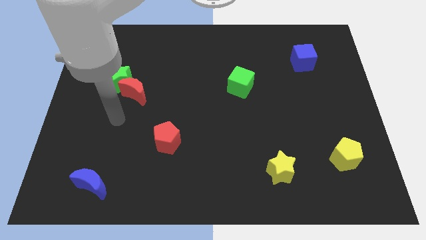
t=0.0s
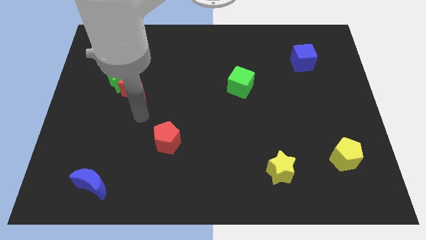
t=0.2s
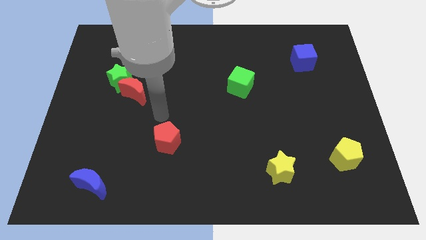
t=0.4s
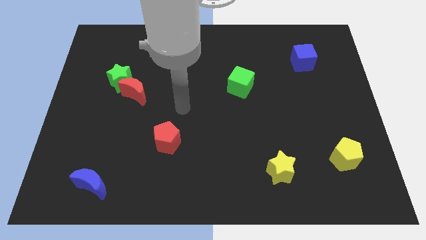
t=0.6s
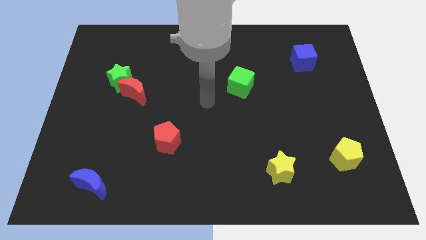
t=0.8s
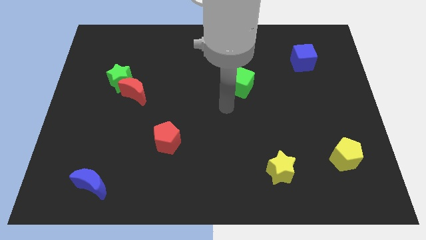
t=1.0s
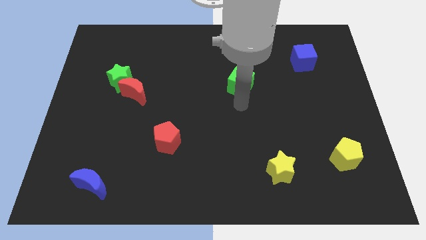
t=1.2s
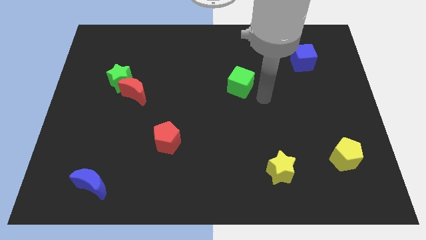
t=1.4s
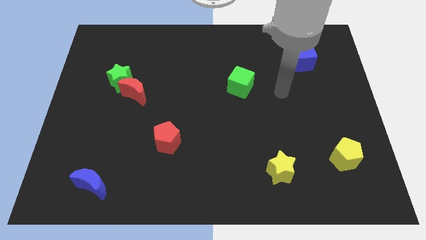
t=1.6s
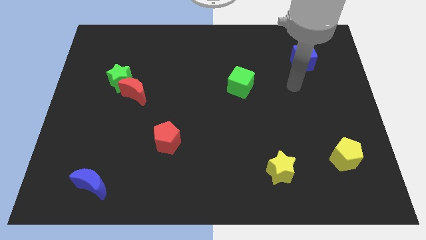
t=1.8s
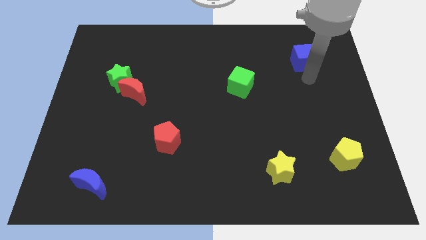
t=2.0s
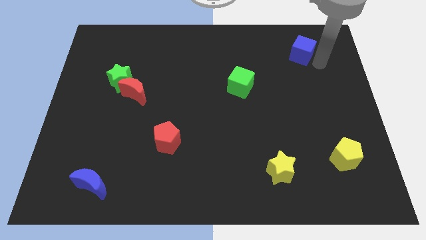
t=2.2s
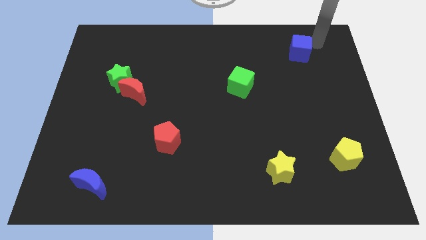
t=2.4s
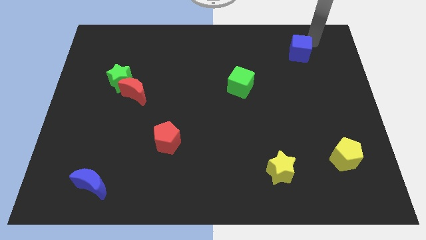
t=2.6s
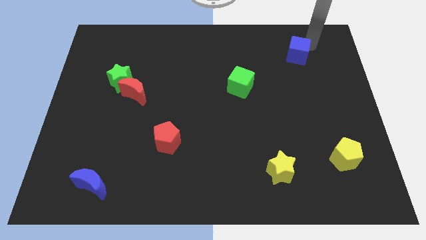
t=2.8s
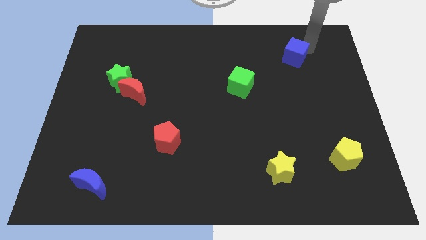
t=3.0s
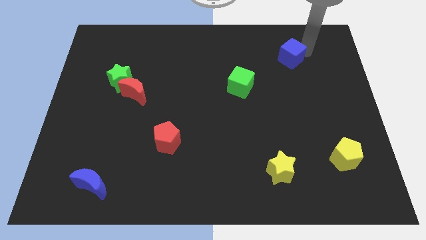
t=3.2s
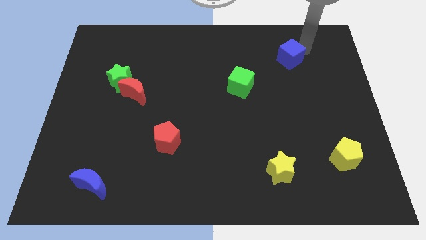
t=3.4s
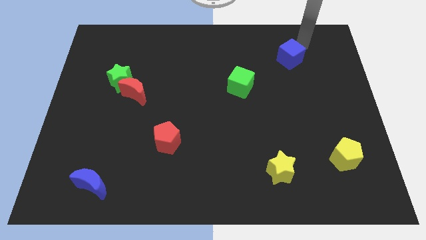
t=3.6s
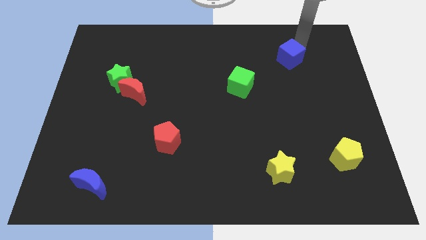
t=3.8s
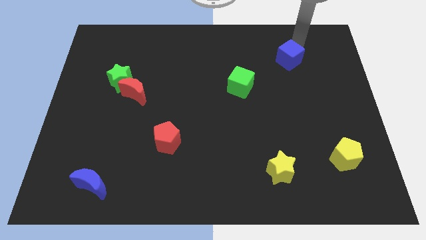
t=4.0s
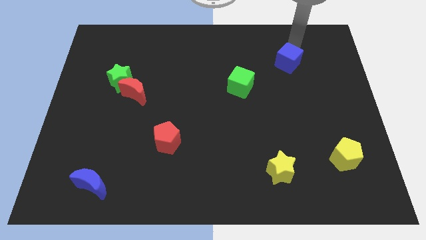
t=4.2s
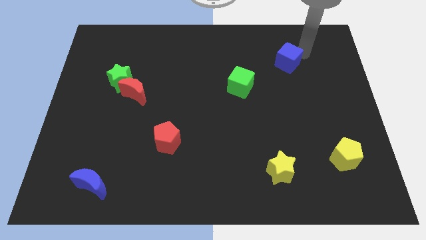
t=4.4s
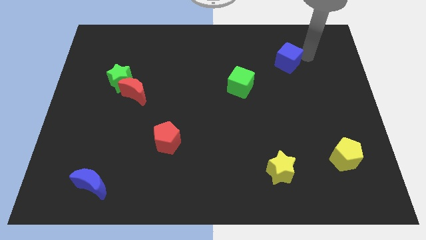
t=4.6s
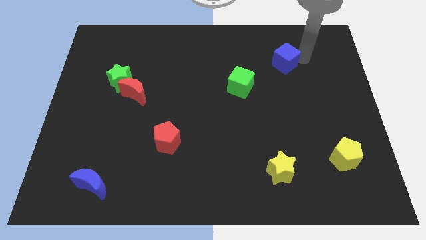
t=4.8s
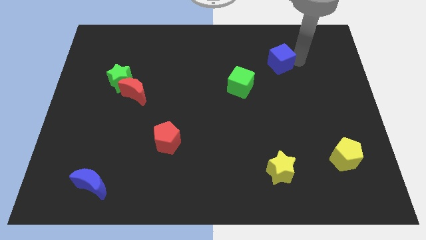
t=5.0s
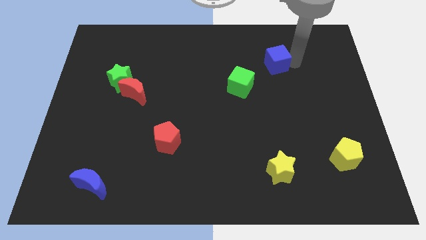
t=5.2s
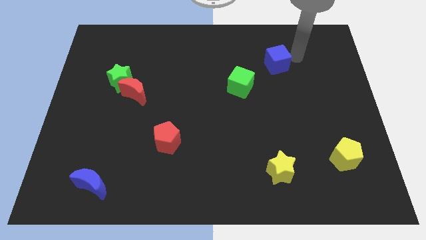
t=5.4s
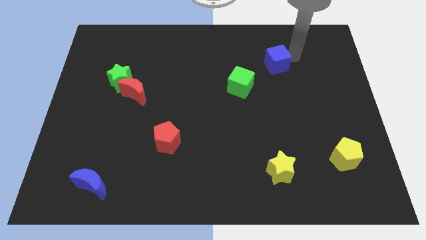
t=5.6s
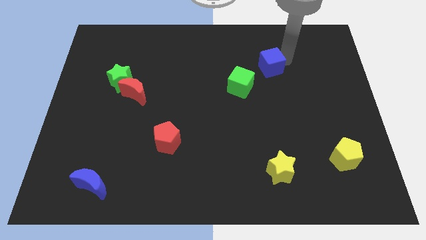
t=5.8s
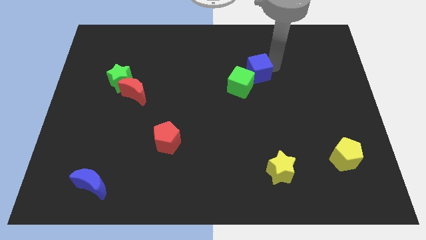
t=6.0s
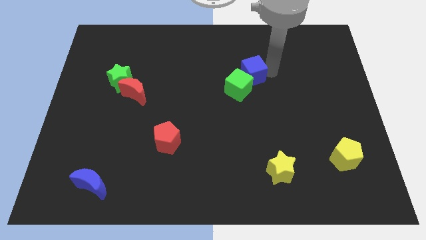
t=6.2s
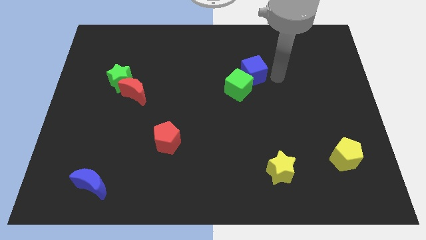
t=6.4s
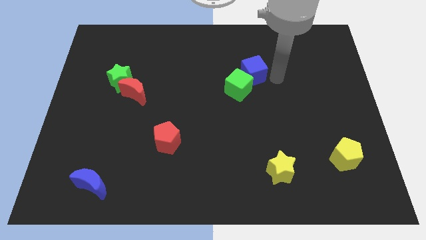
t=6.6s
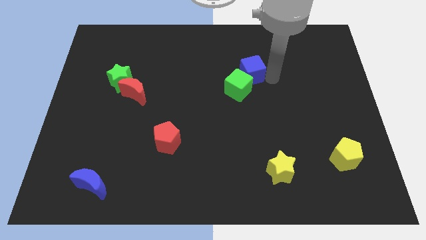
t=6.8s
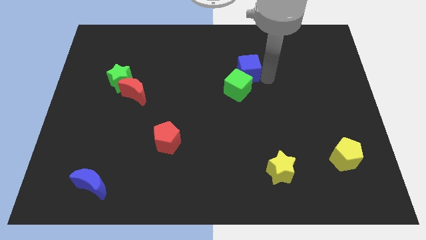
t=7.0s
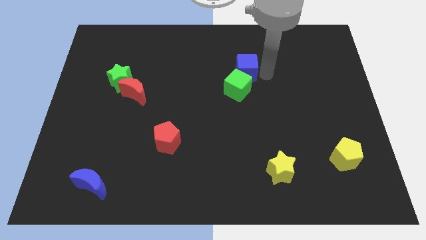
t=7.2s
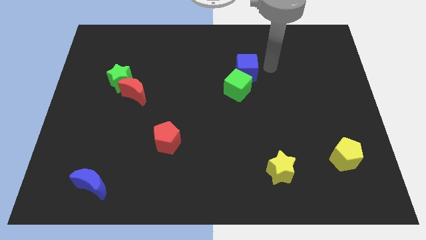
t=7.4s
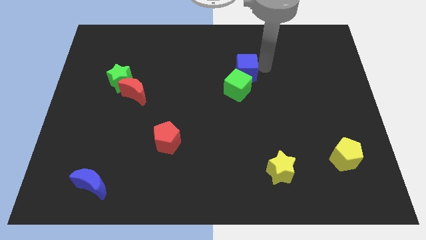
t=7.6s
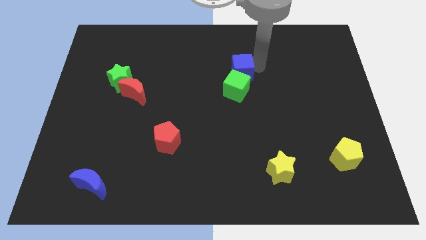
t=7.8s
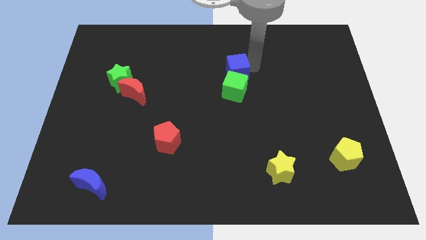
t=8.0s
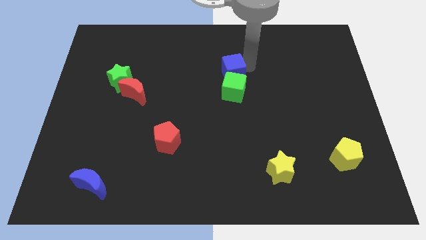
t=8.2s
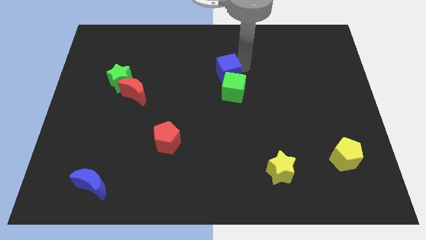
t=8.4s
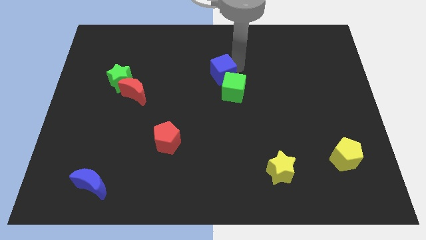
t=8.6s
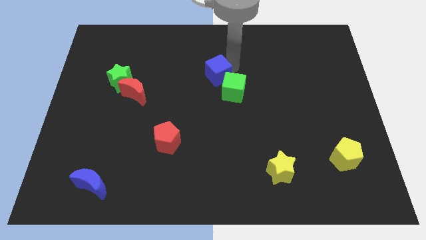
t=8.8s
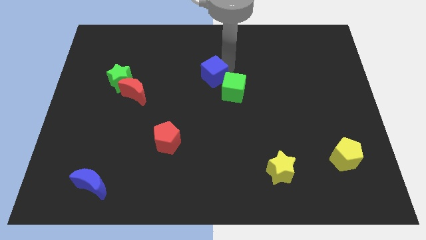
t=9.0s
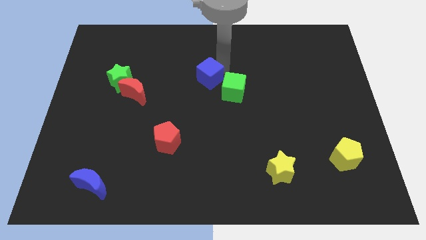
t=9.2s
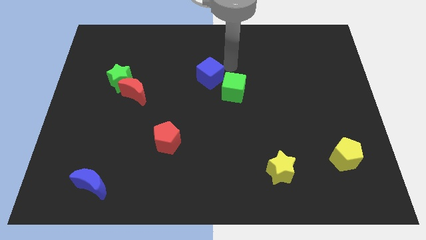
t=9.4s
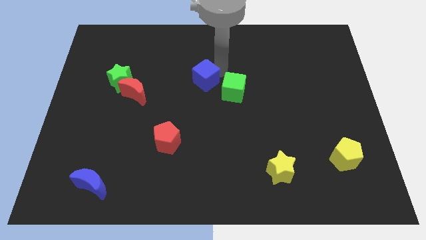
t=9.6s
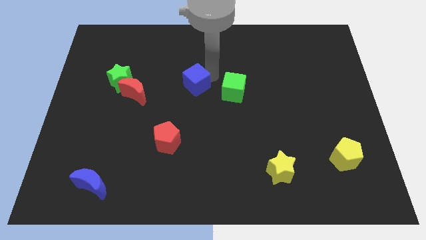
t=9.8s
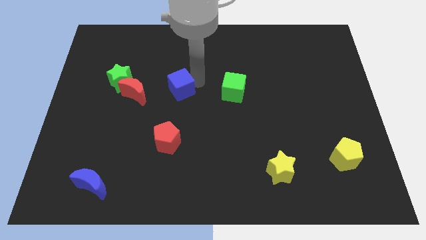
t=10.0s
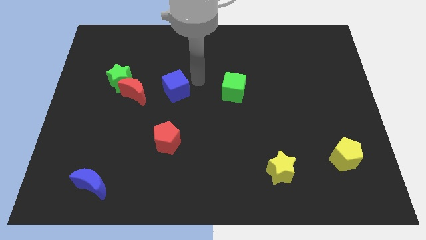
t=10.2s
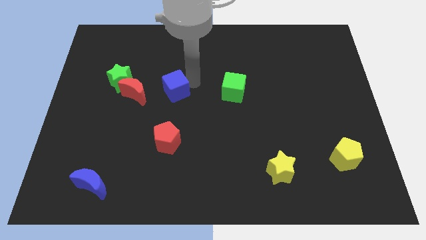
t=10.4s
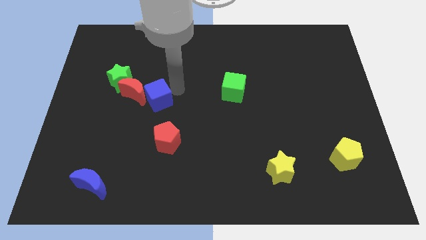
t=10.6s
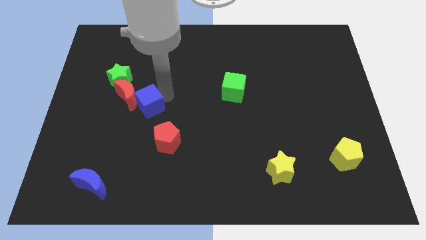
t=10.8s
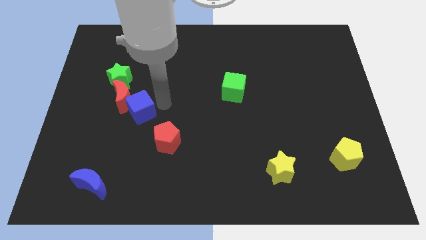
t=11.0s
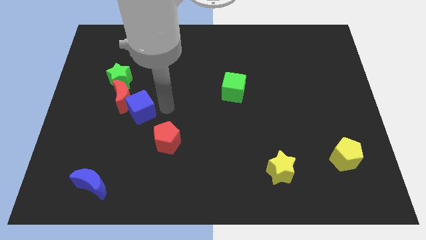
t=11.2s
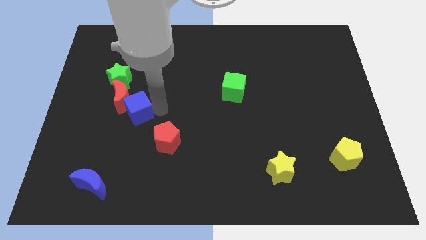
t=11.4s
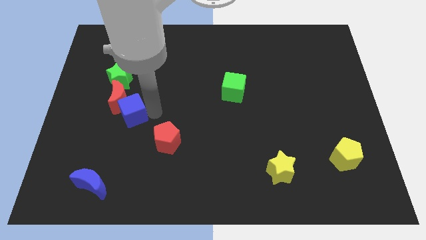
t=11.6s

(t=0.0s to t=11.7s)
slide the blue cube to the bottom side of the green star

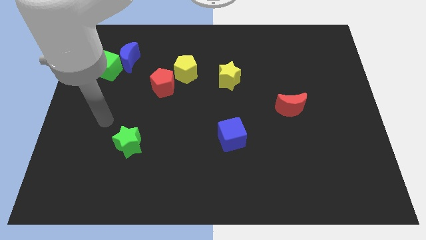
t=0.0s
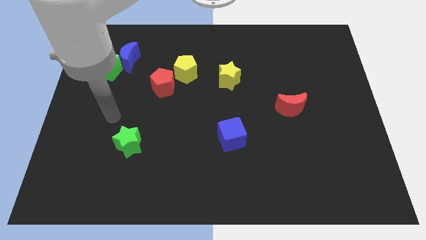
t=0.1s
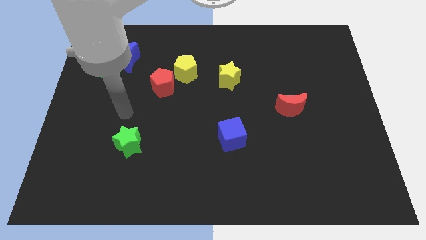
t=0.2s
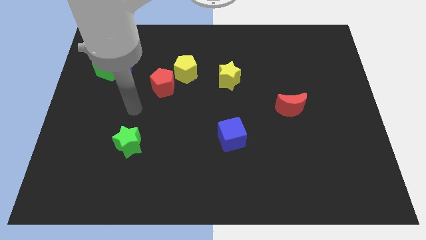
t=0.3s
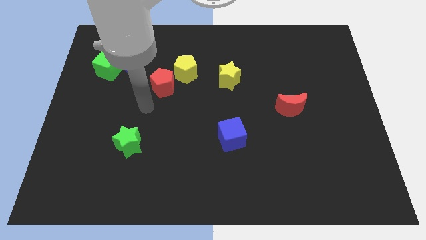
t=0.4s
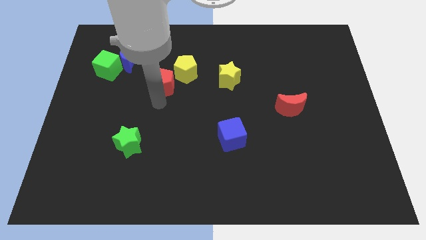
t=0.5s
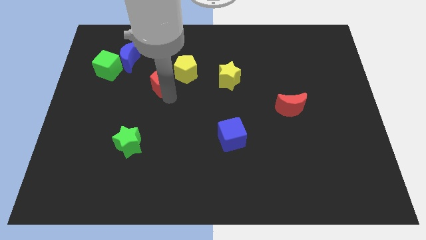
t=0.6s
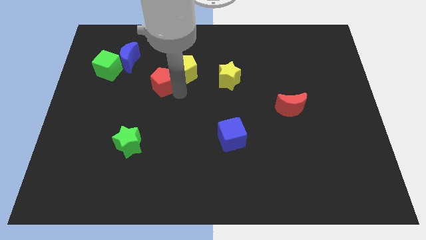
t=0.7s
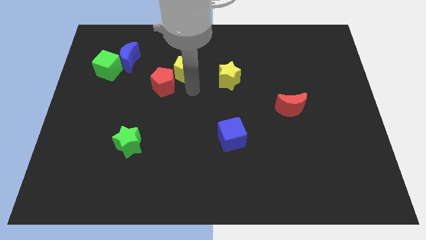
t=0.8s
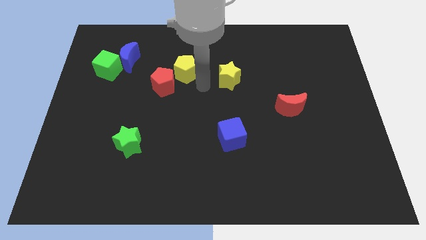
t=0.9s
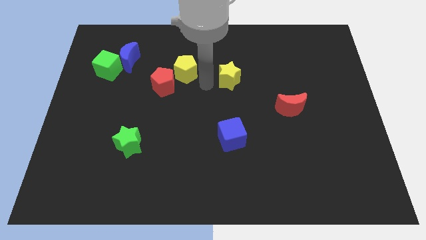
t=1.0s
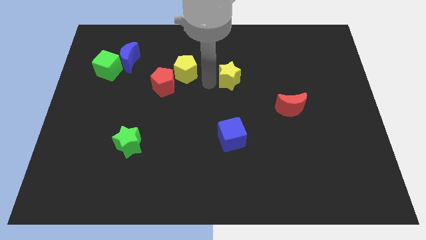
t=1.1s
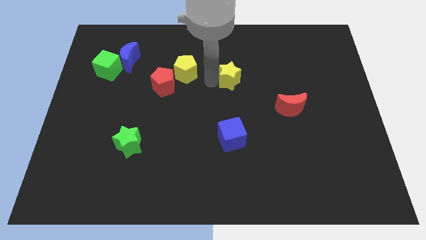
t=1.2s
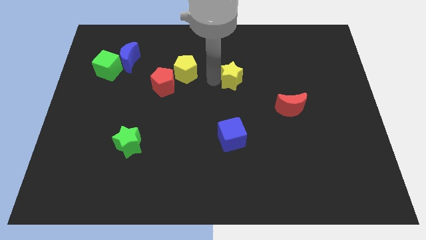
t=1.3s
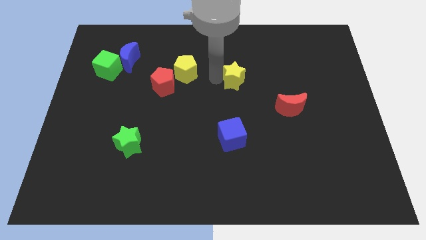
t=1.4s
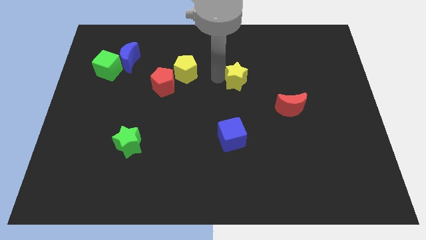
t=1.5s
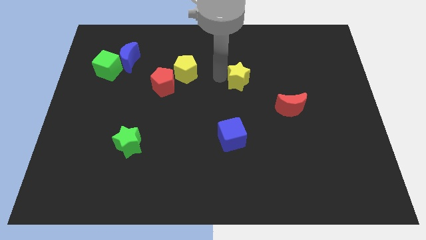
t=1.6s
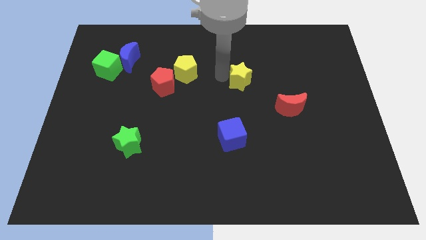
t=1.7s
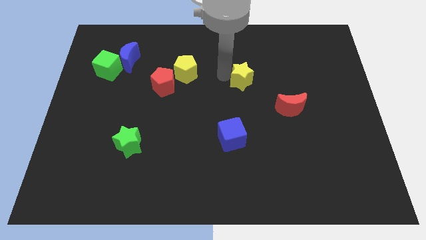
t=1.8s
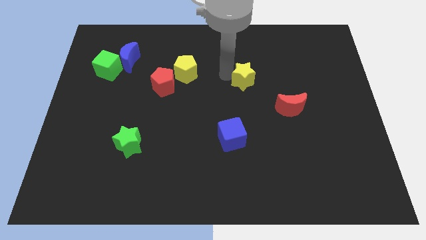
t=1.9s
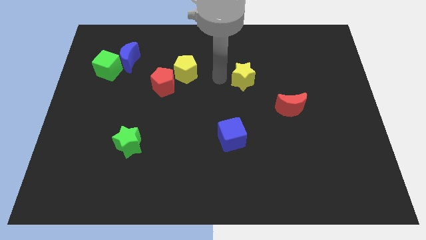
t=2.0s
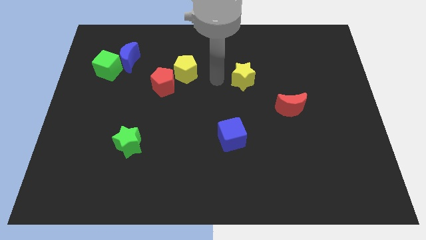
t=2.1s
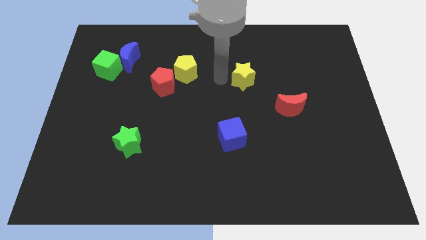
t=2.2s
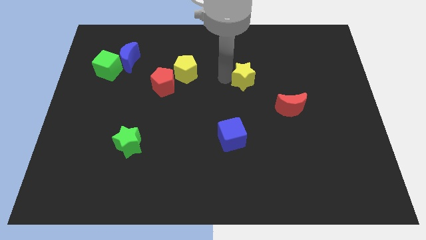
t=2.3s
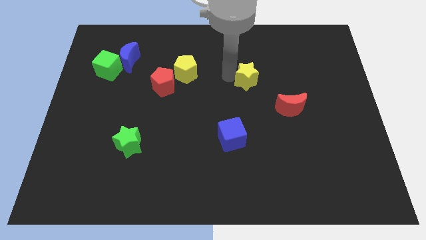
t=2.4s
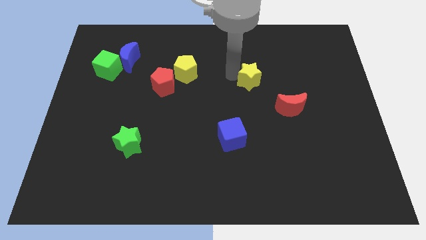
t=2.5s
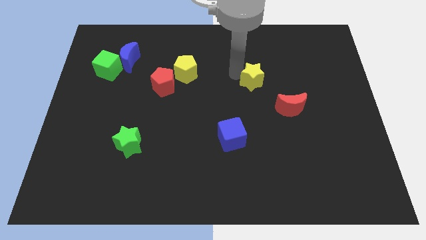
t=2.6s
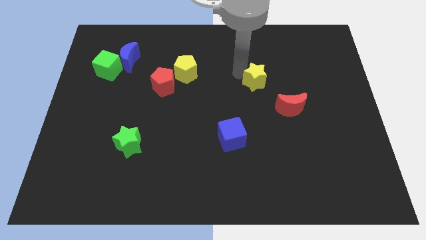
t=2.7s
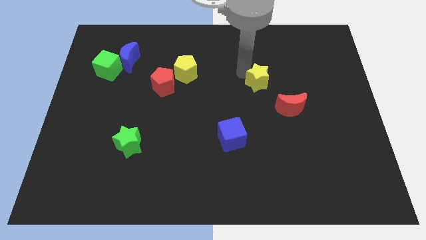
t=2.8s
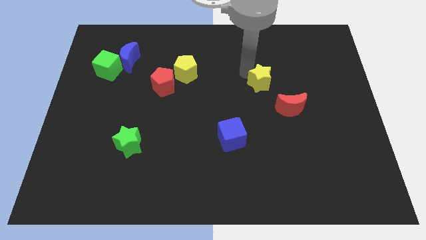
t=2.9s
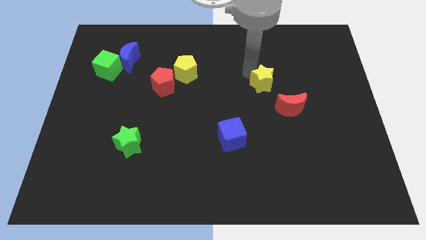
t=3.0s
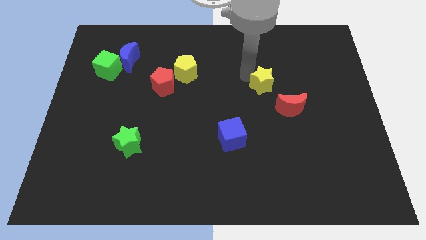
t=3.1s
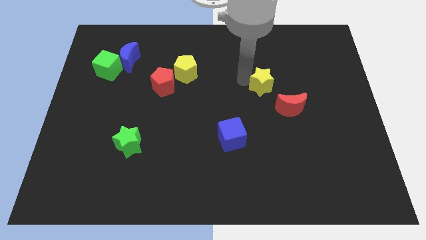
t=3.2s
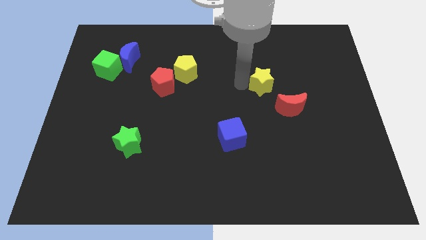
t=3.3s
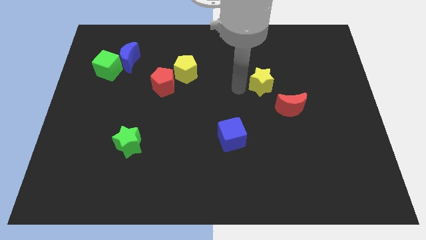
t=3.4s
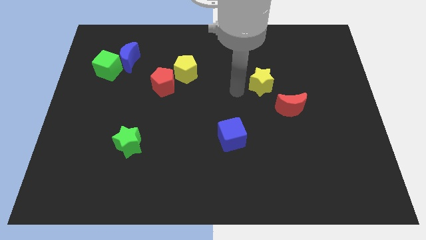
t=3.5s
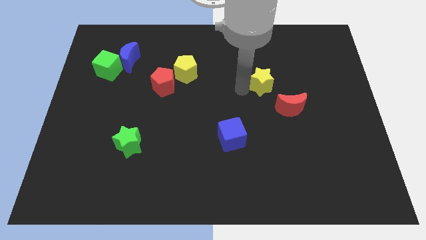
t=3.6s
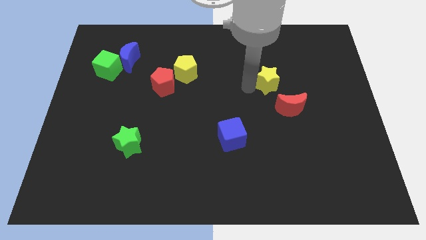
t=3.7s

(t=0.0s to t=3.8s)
put the yellow star to the top side of the red moon
